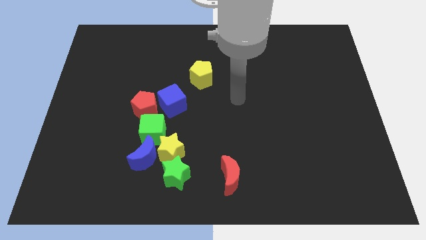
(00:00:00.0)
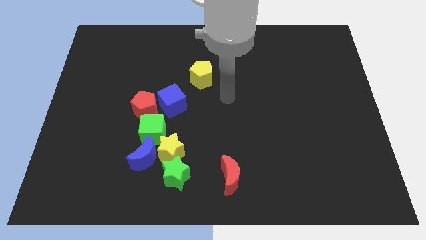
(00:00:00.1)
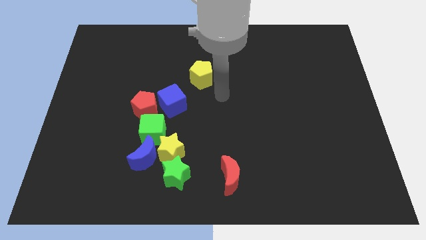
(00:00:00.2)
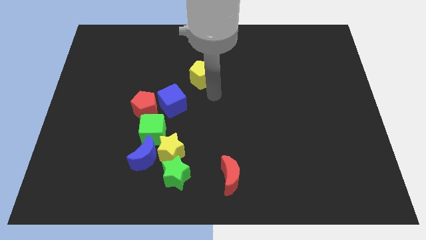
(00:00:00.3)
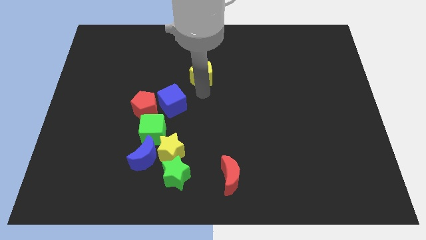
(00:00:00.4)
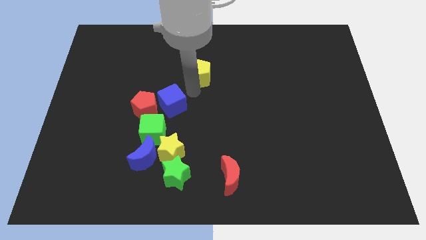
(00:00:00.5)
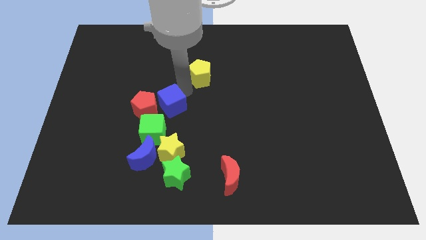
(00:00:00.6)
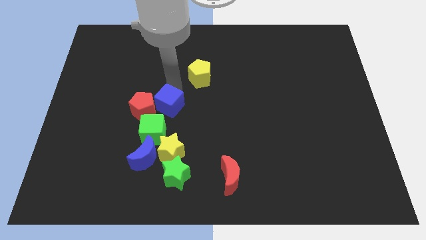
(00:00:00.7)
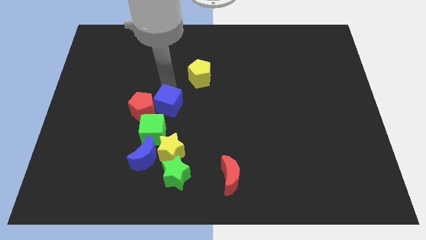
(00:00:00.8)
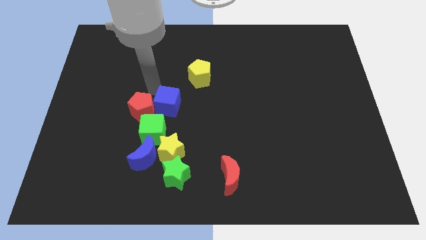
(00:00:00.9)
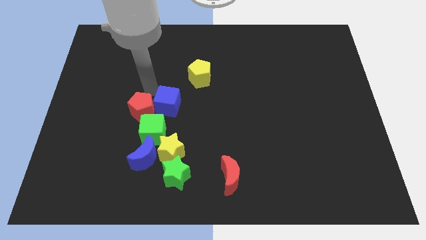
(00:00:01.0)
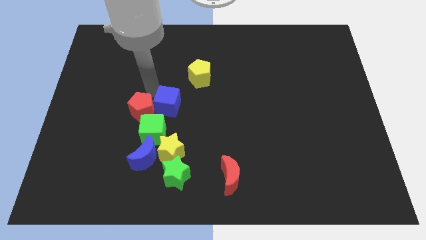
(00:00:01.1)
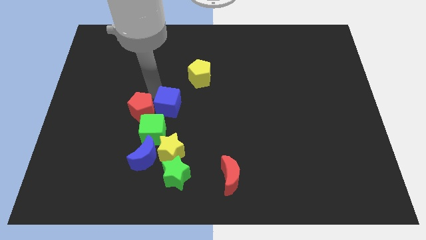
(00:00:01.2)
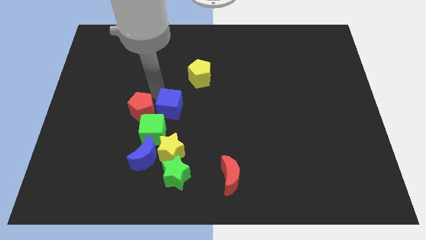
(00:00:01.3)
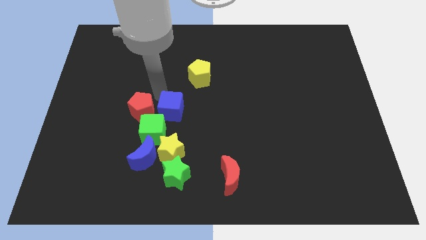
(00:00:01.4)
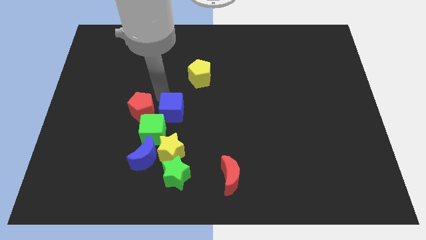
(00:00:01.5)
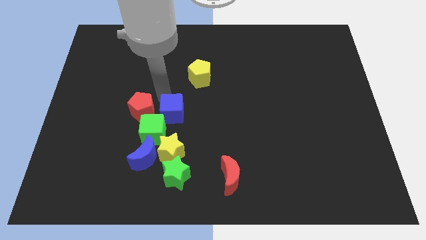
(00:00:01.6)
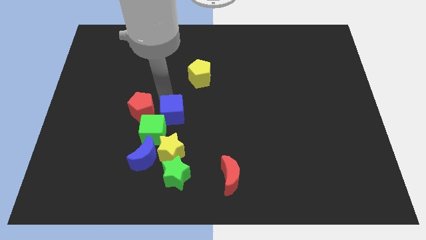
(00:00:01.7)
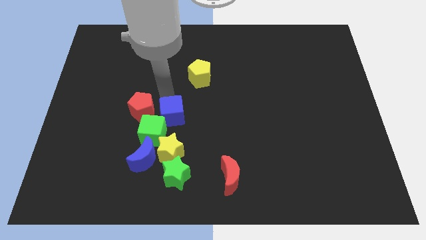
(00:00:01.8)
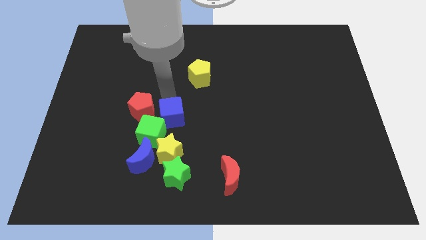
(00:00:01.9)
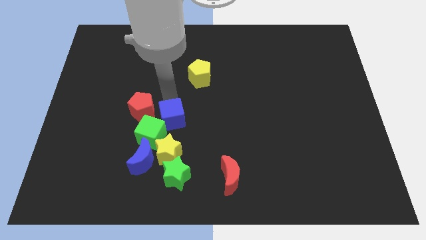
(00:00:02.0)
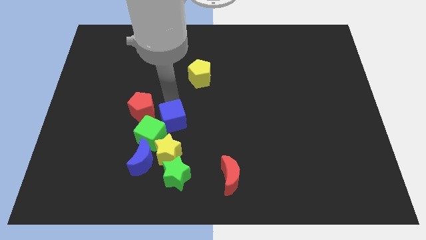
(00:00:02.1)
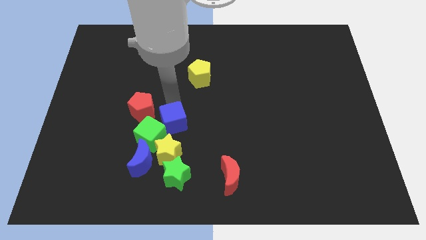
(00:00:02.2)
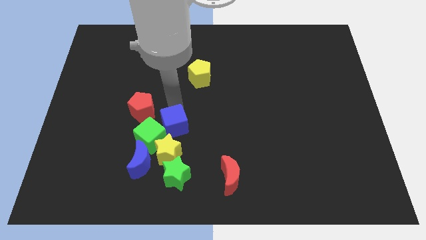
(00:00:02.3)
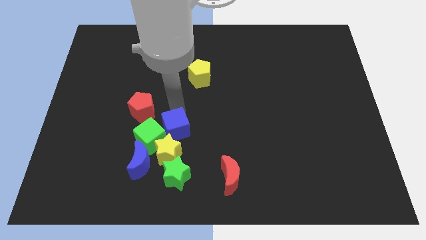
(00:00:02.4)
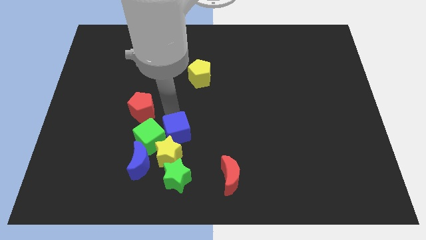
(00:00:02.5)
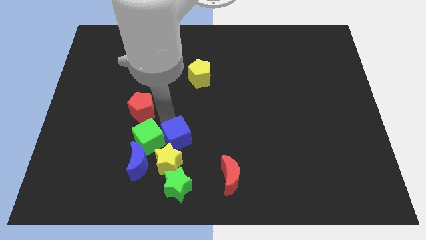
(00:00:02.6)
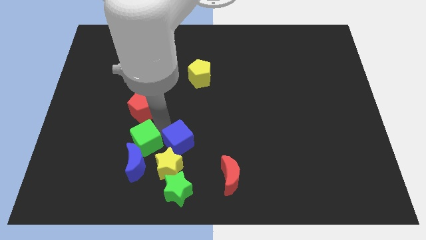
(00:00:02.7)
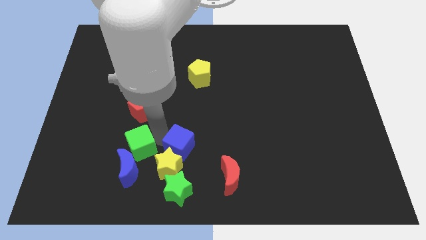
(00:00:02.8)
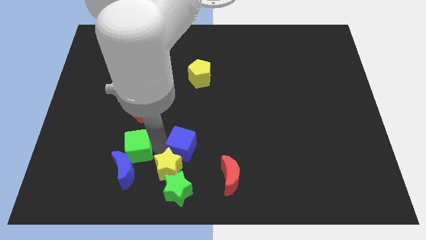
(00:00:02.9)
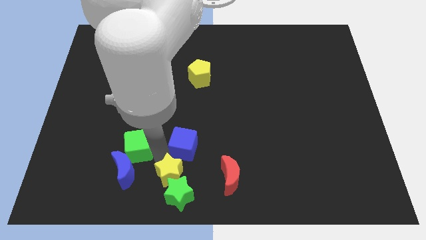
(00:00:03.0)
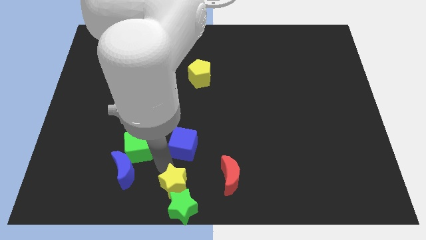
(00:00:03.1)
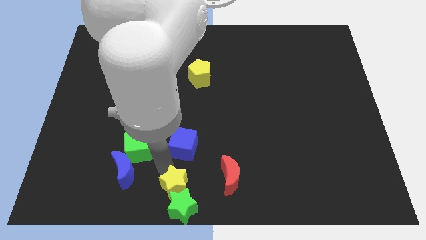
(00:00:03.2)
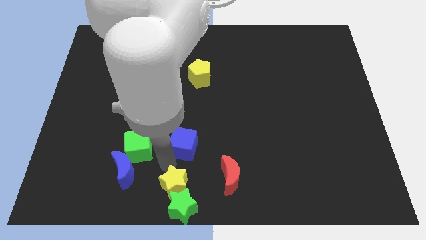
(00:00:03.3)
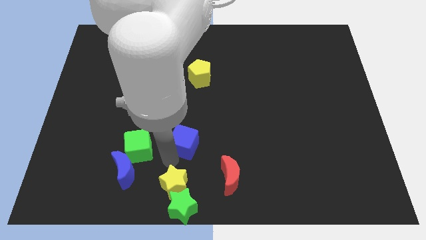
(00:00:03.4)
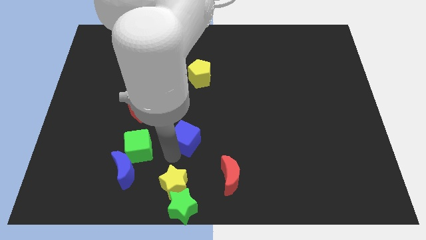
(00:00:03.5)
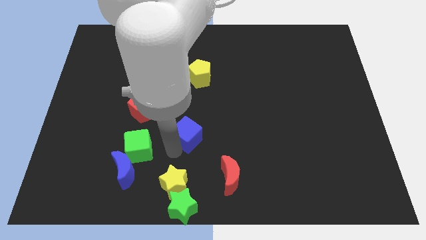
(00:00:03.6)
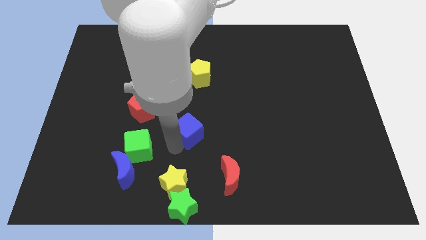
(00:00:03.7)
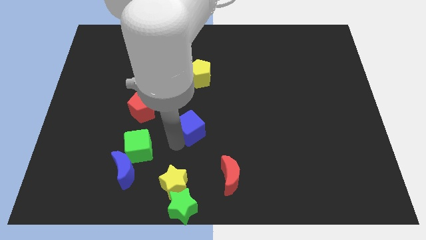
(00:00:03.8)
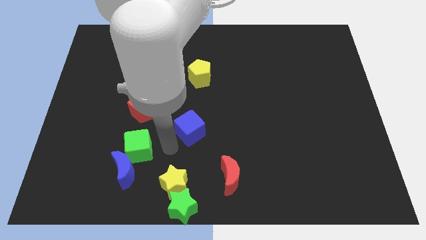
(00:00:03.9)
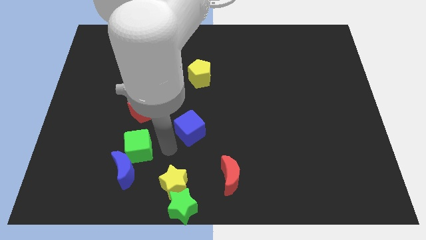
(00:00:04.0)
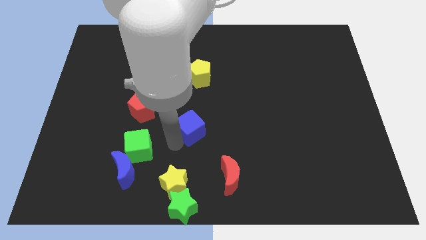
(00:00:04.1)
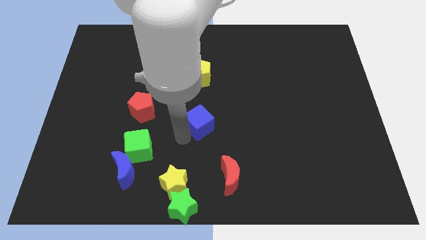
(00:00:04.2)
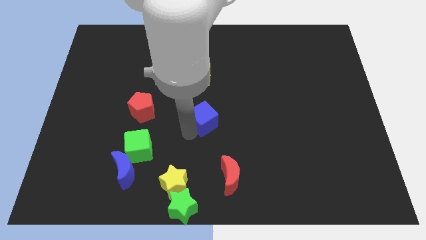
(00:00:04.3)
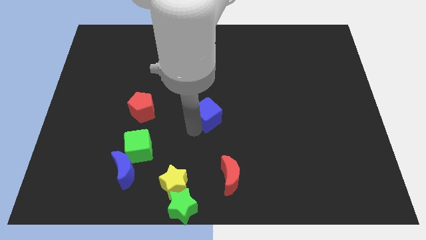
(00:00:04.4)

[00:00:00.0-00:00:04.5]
slightly move the blue cube to the right

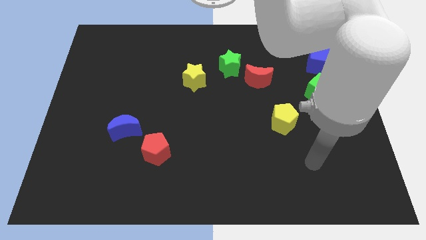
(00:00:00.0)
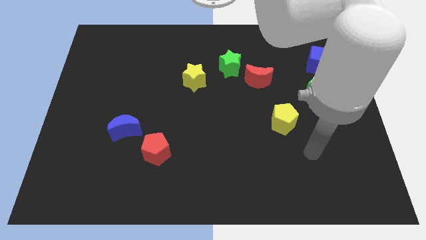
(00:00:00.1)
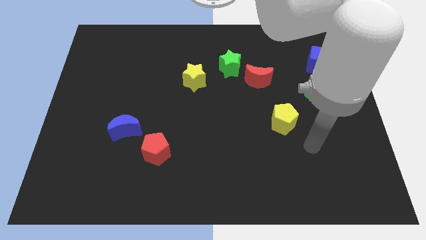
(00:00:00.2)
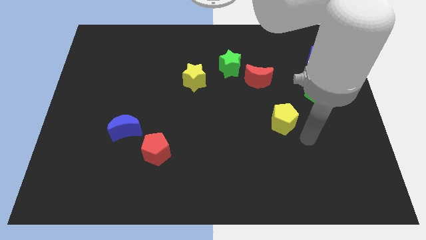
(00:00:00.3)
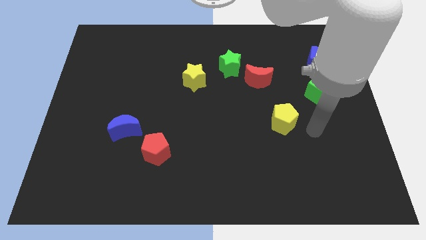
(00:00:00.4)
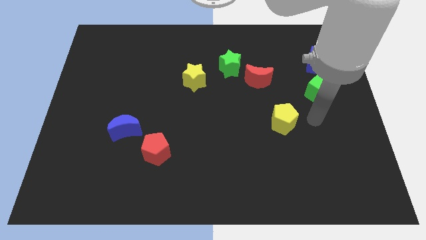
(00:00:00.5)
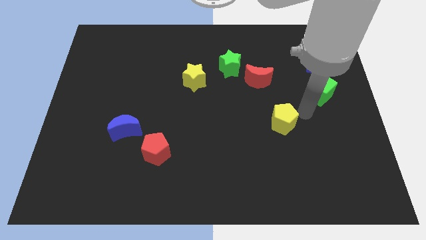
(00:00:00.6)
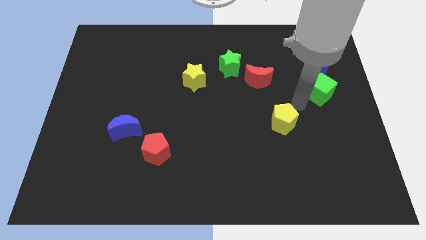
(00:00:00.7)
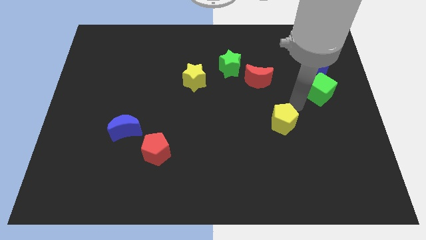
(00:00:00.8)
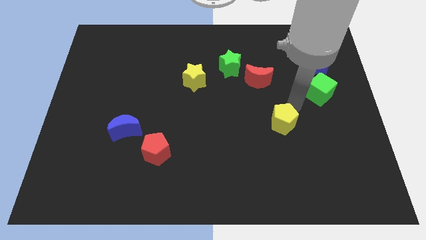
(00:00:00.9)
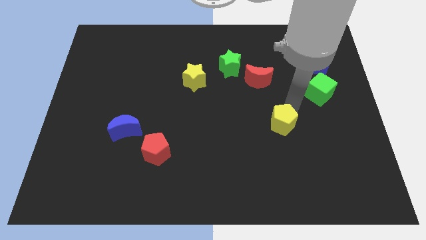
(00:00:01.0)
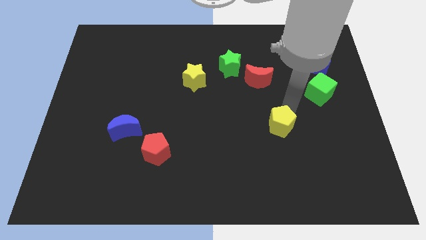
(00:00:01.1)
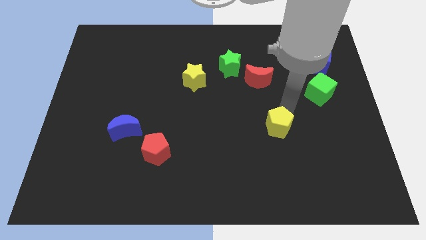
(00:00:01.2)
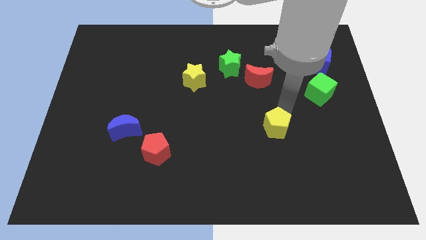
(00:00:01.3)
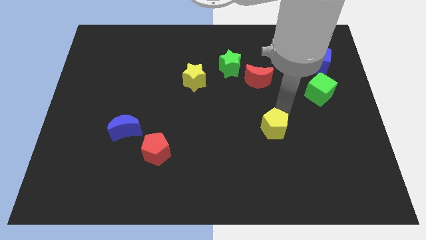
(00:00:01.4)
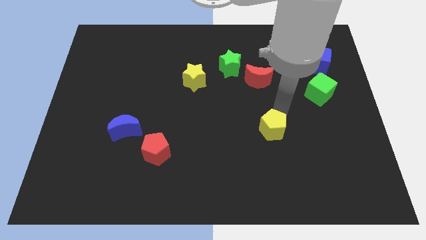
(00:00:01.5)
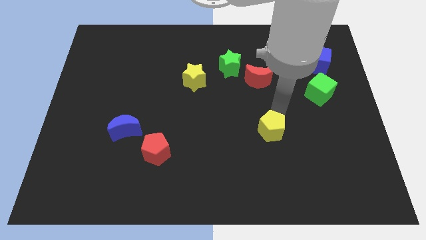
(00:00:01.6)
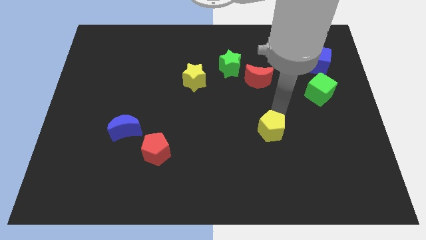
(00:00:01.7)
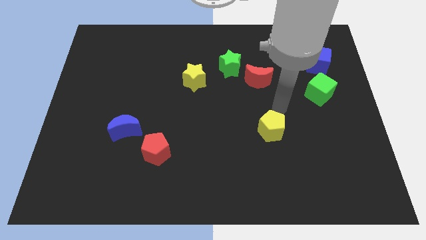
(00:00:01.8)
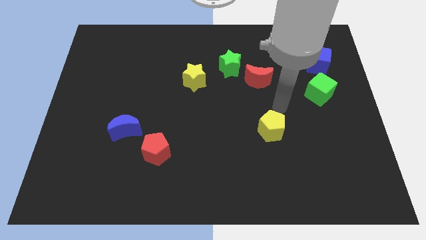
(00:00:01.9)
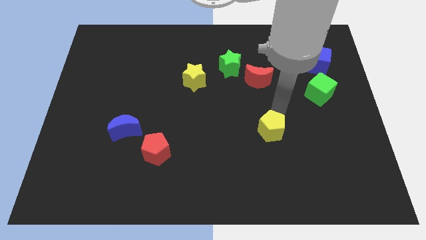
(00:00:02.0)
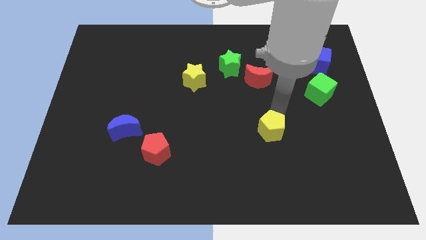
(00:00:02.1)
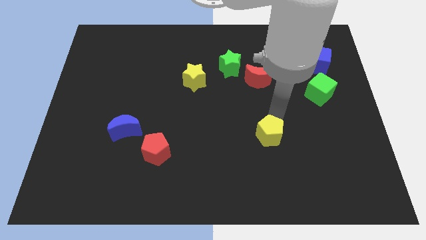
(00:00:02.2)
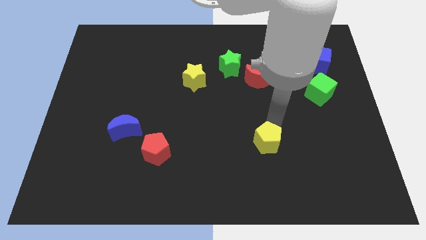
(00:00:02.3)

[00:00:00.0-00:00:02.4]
move the yellow pentagon diagonally down and left somewhat

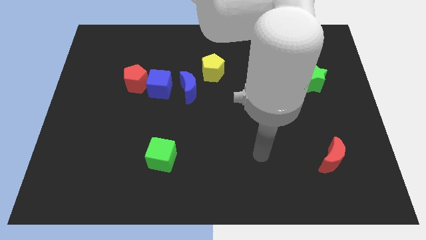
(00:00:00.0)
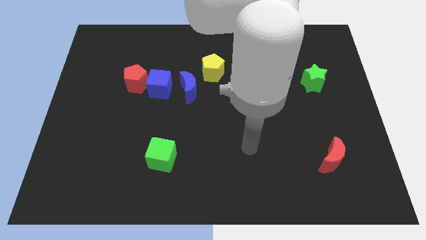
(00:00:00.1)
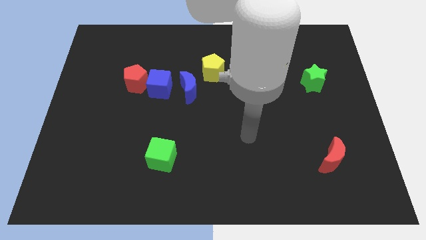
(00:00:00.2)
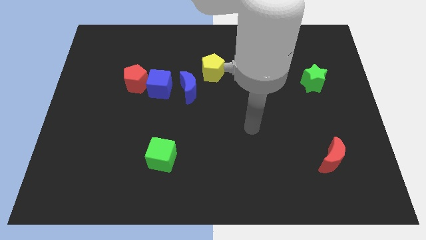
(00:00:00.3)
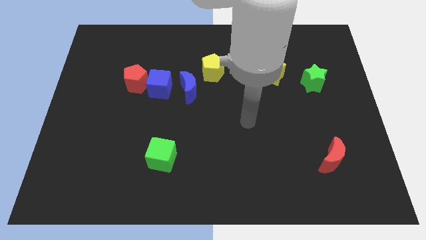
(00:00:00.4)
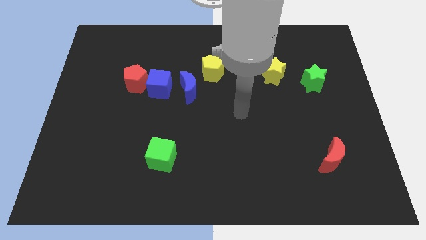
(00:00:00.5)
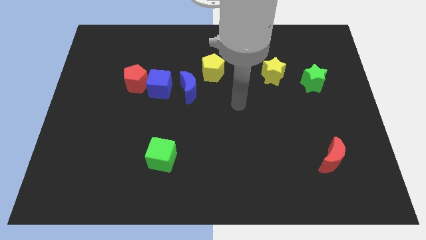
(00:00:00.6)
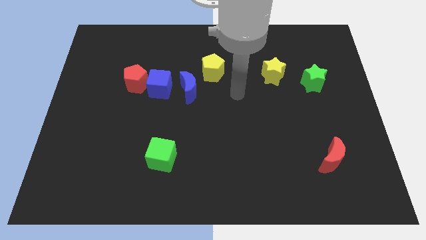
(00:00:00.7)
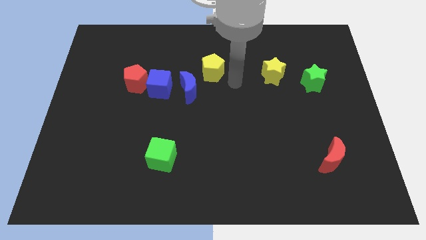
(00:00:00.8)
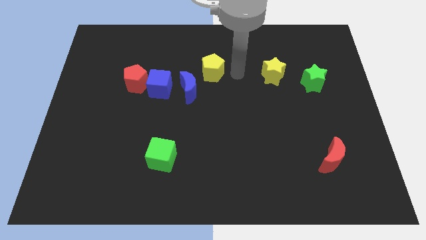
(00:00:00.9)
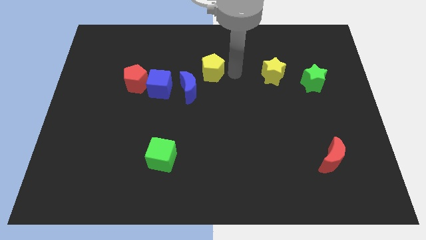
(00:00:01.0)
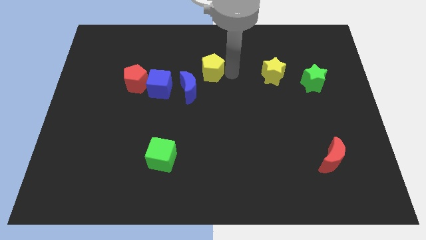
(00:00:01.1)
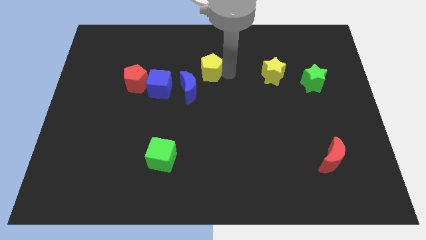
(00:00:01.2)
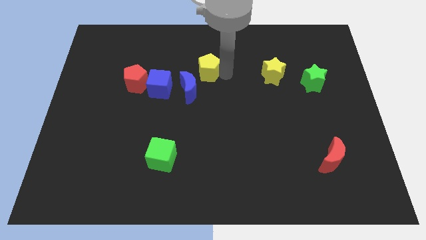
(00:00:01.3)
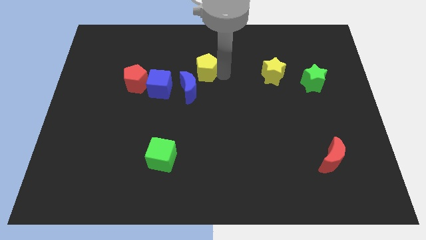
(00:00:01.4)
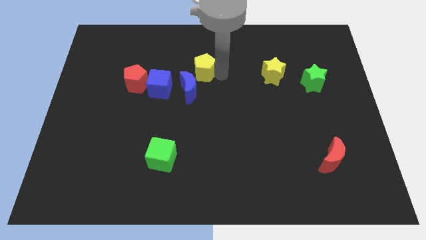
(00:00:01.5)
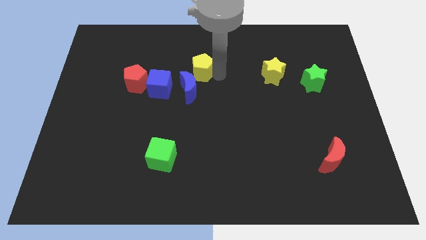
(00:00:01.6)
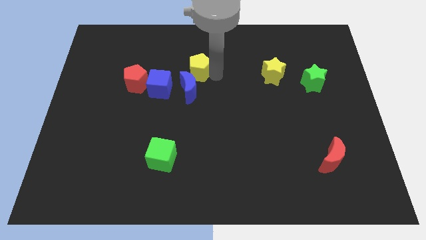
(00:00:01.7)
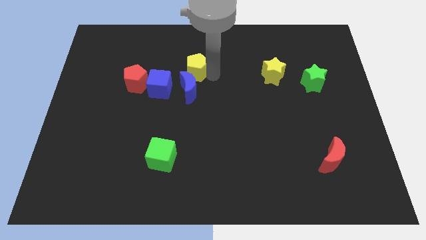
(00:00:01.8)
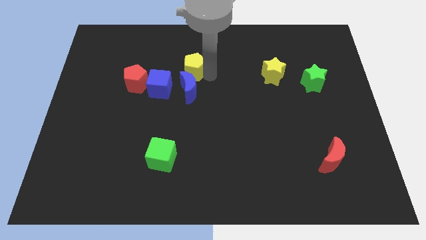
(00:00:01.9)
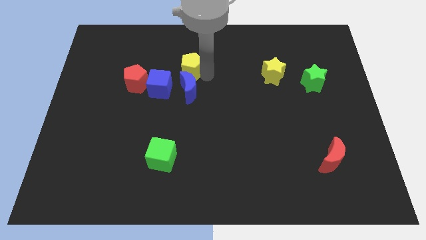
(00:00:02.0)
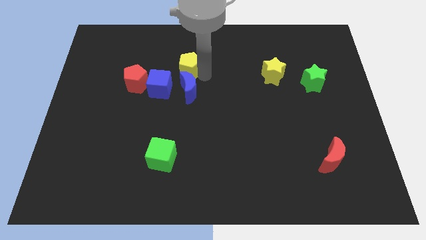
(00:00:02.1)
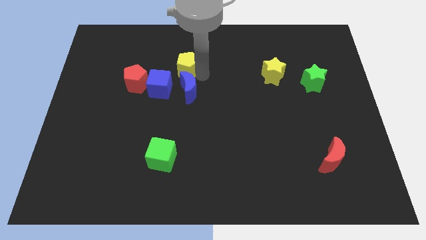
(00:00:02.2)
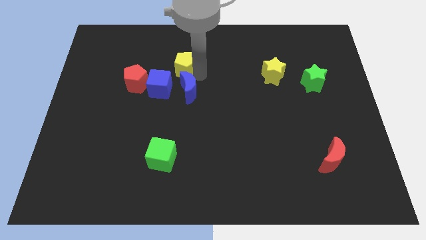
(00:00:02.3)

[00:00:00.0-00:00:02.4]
slightly push the yellow pentagon to the left
